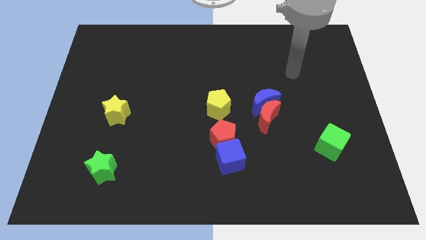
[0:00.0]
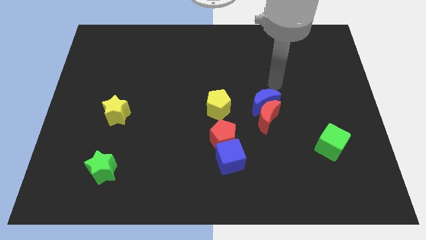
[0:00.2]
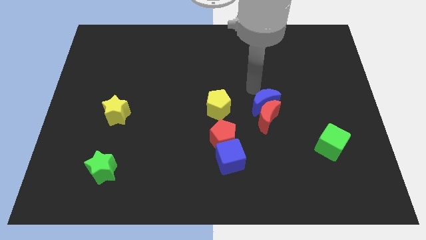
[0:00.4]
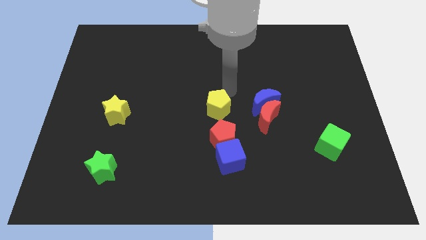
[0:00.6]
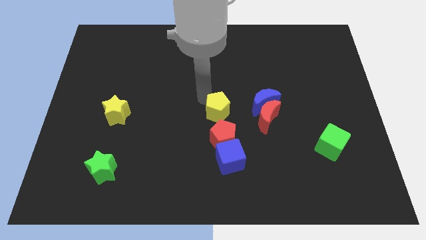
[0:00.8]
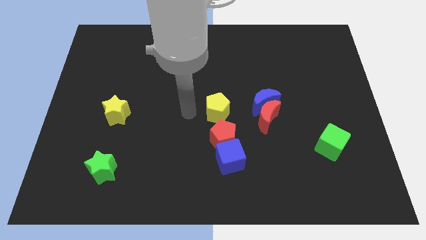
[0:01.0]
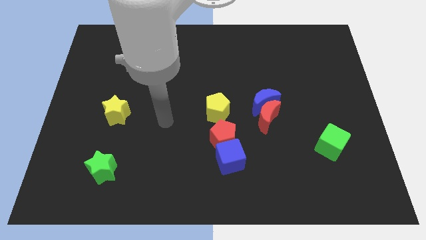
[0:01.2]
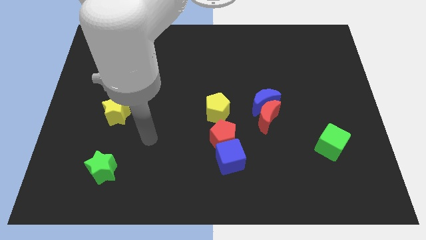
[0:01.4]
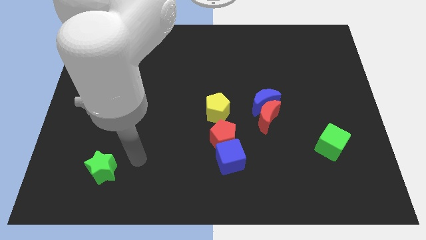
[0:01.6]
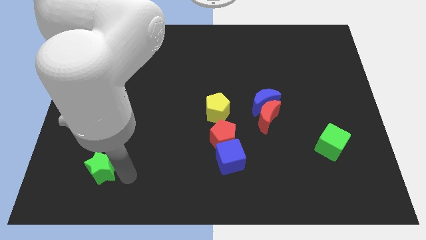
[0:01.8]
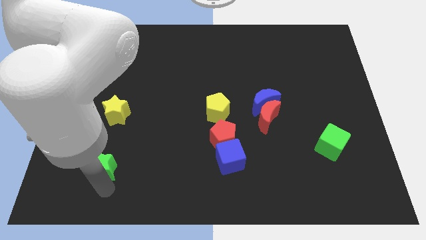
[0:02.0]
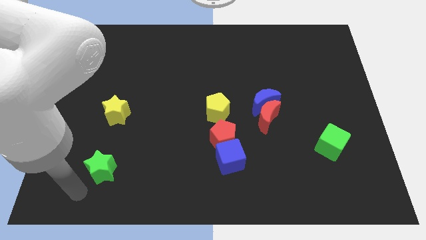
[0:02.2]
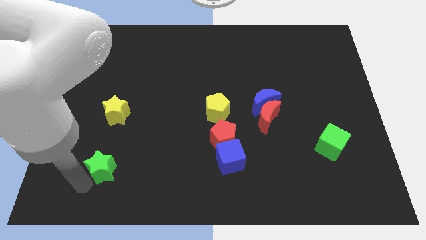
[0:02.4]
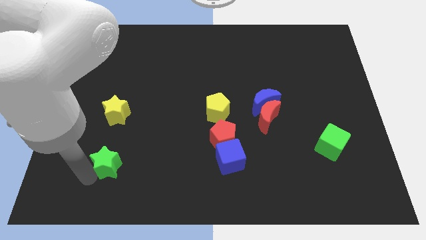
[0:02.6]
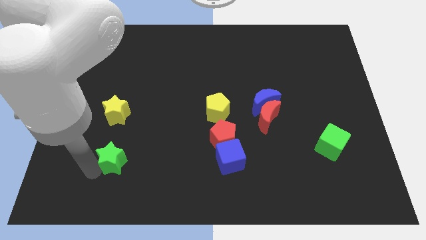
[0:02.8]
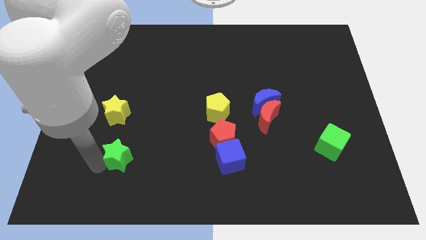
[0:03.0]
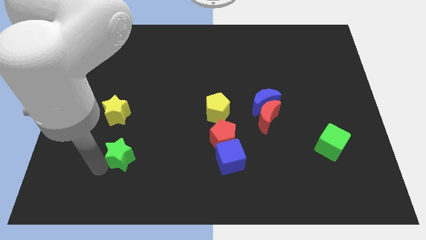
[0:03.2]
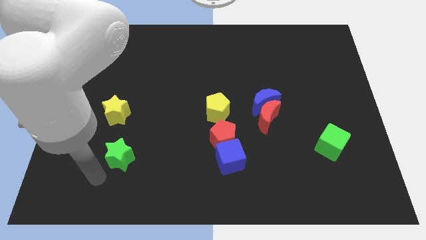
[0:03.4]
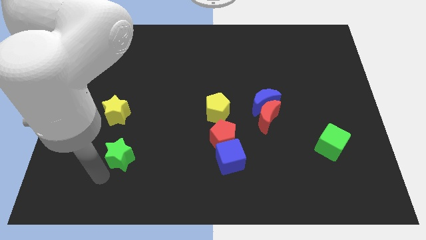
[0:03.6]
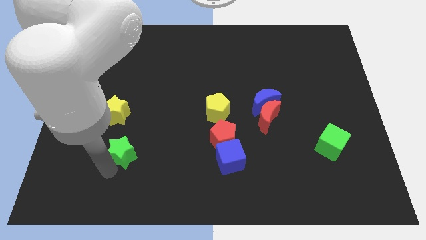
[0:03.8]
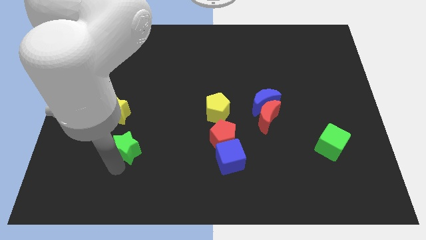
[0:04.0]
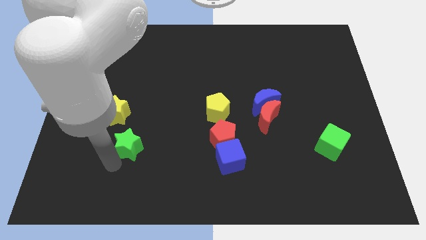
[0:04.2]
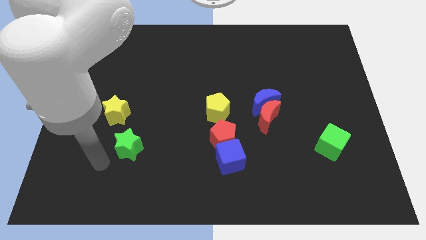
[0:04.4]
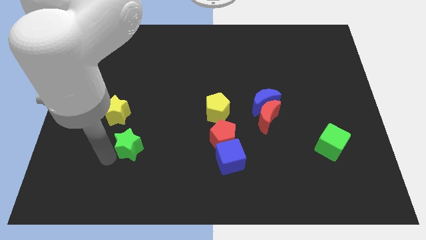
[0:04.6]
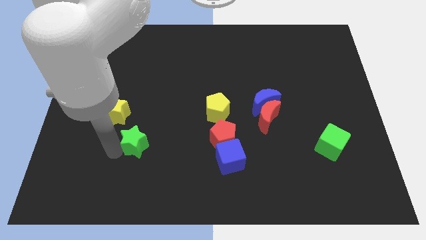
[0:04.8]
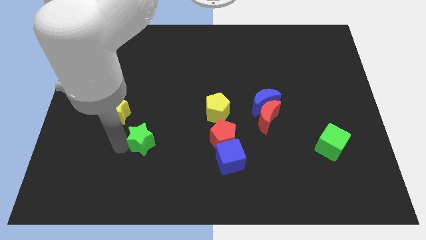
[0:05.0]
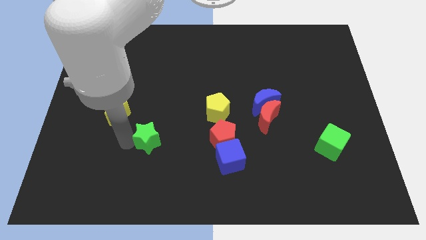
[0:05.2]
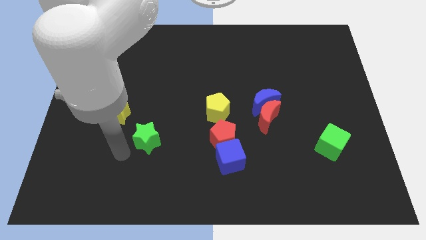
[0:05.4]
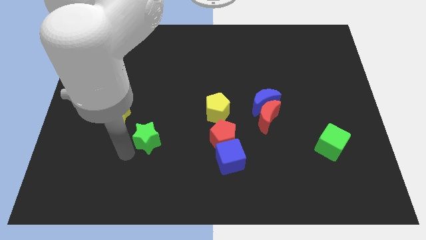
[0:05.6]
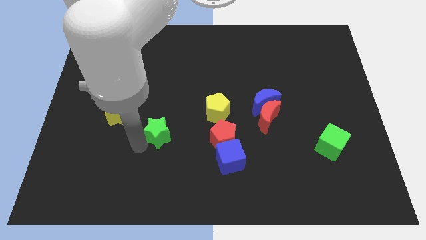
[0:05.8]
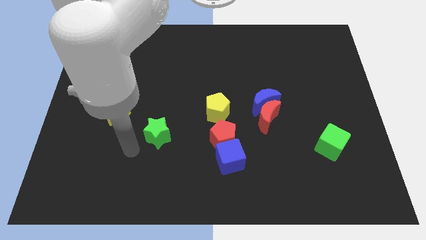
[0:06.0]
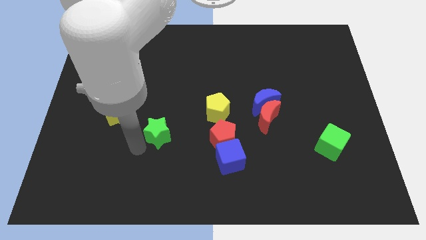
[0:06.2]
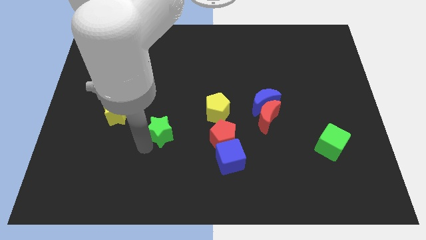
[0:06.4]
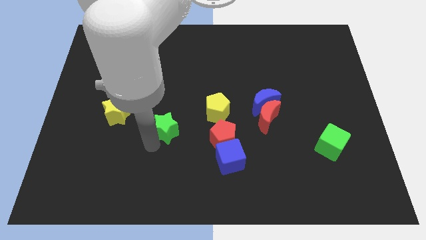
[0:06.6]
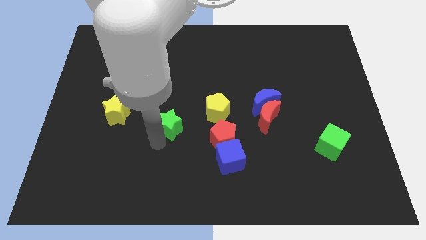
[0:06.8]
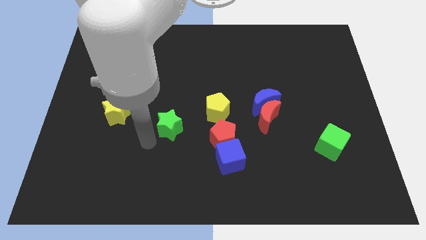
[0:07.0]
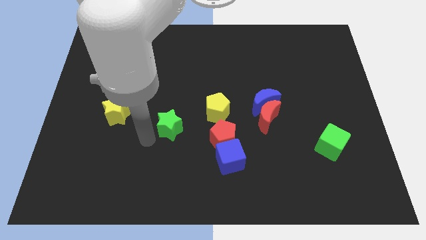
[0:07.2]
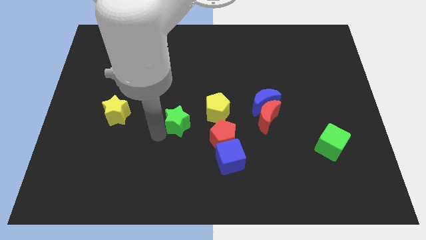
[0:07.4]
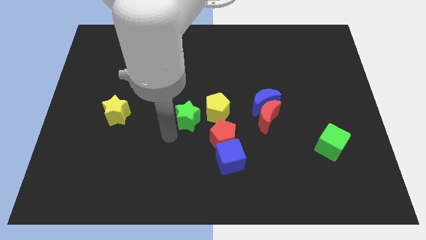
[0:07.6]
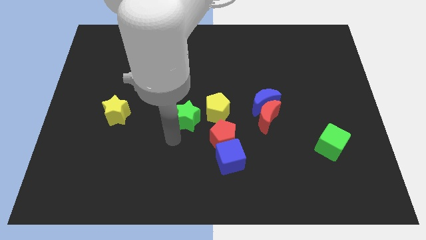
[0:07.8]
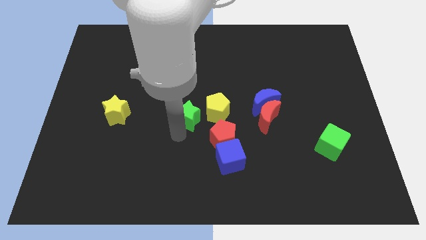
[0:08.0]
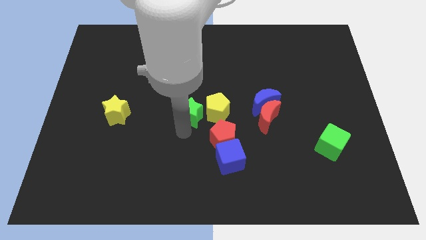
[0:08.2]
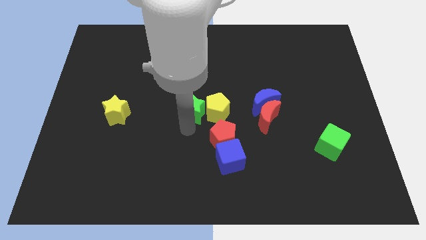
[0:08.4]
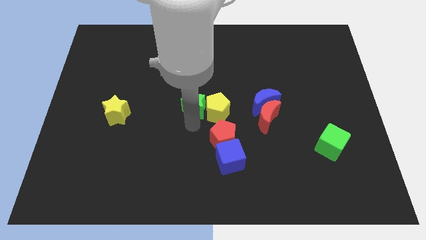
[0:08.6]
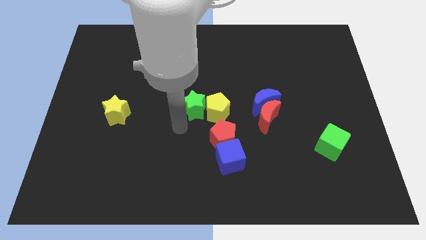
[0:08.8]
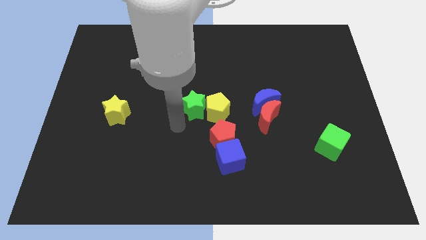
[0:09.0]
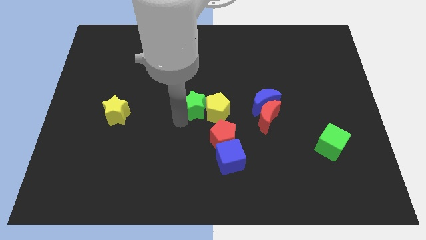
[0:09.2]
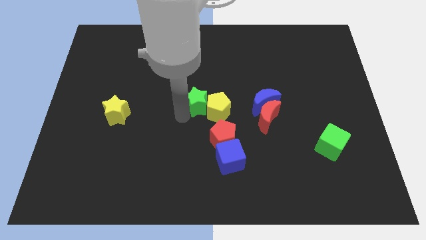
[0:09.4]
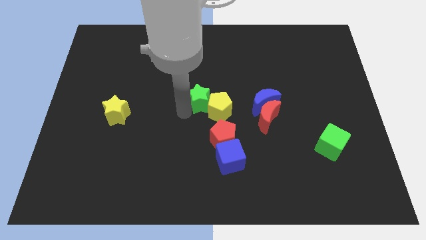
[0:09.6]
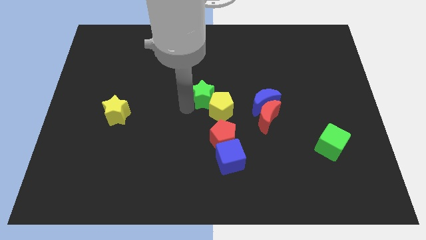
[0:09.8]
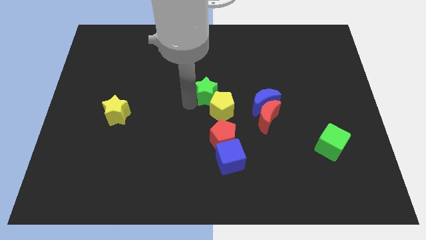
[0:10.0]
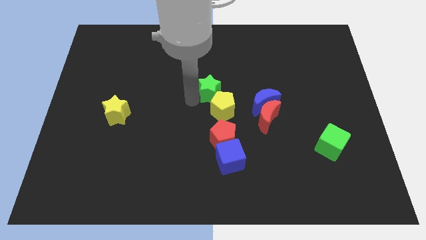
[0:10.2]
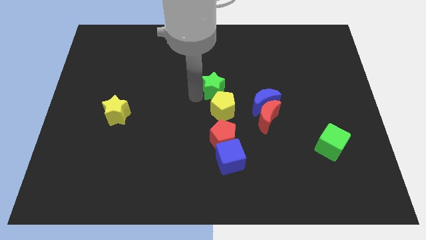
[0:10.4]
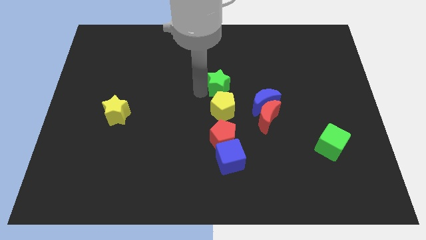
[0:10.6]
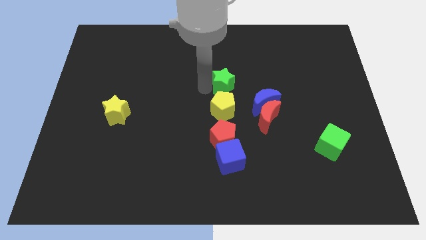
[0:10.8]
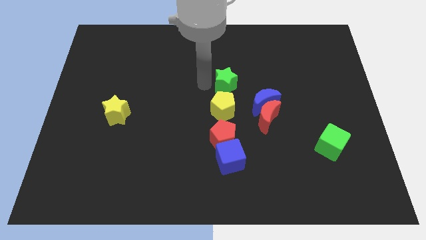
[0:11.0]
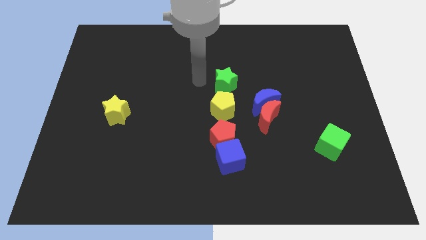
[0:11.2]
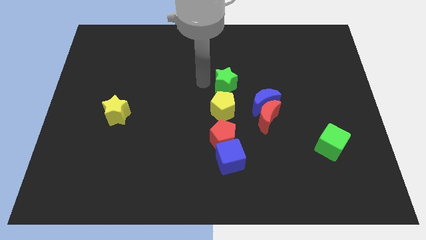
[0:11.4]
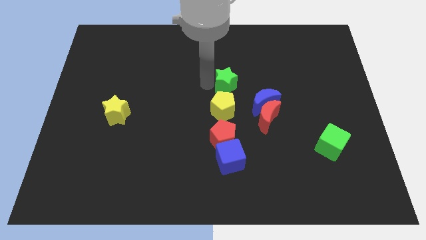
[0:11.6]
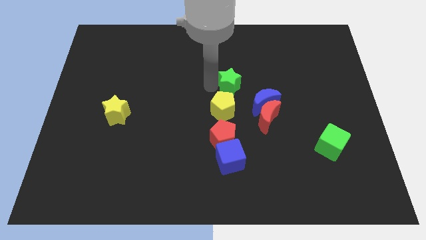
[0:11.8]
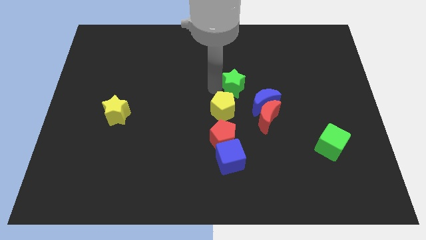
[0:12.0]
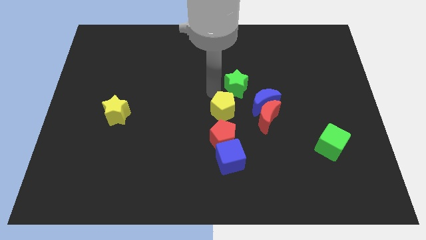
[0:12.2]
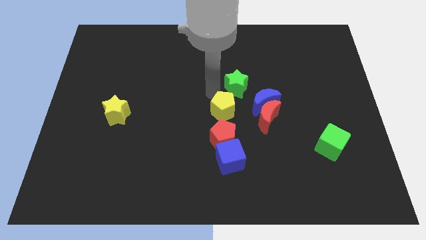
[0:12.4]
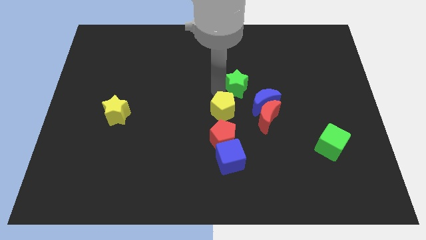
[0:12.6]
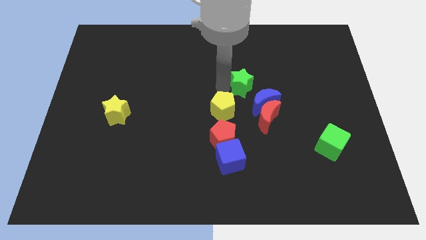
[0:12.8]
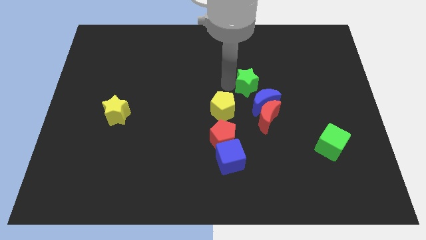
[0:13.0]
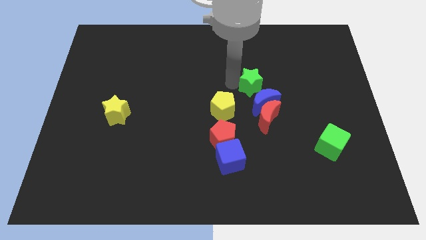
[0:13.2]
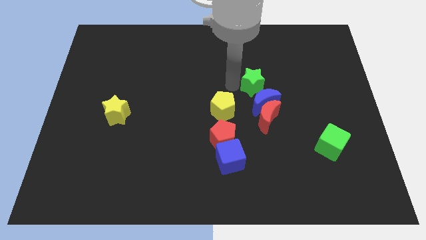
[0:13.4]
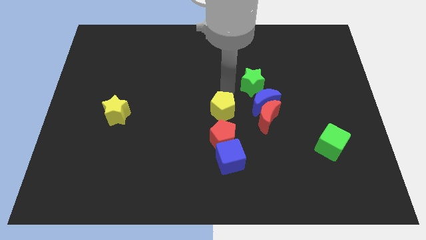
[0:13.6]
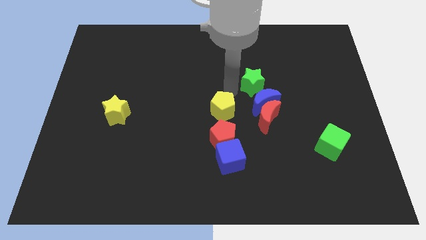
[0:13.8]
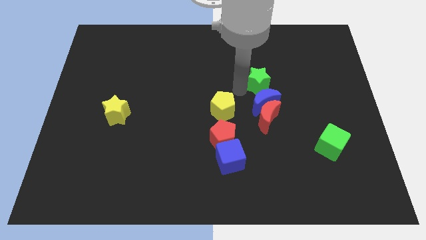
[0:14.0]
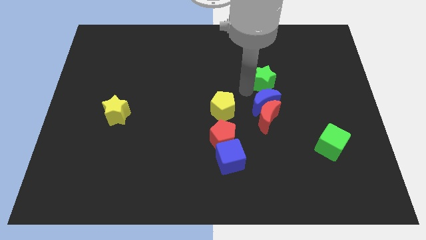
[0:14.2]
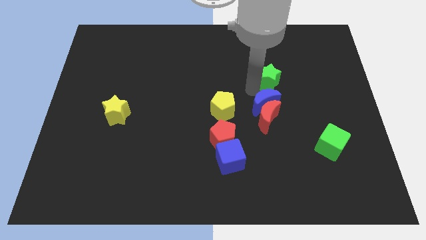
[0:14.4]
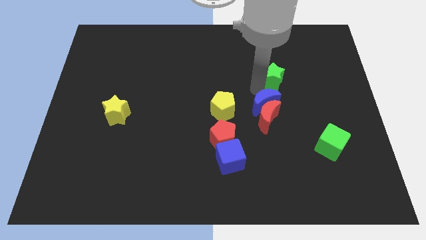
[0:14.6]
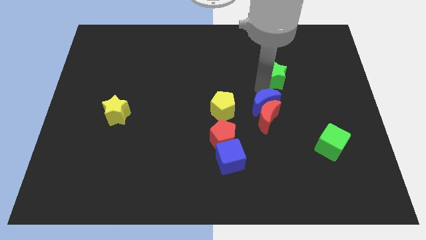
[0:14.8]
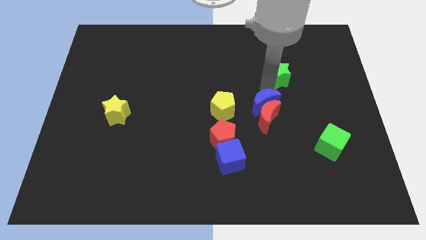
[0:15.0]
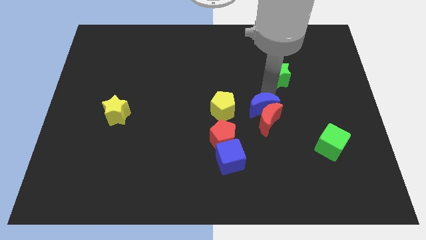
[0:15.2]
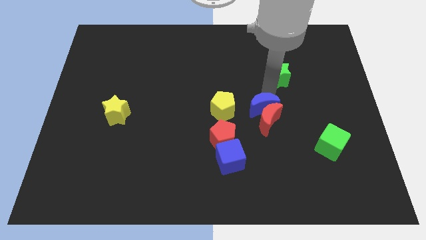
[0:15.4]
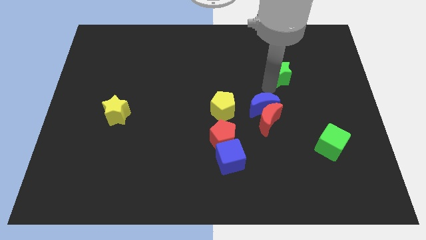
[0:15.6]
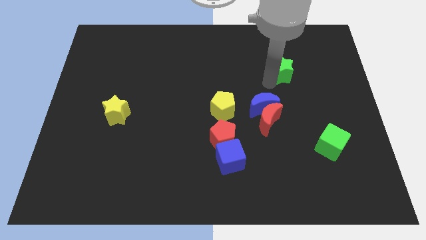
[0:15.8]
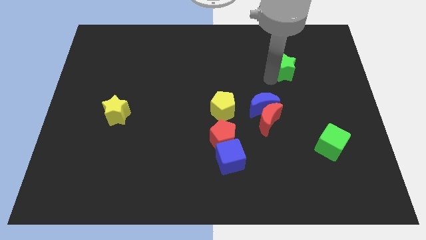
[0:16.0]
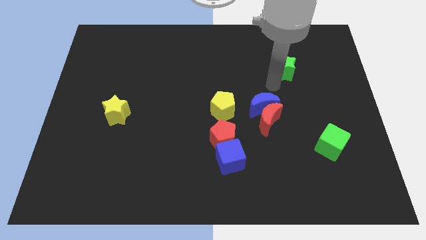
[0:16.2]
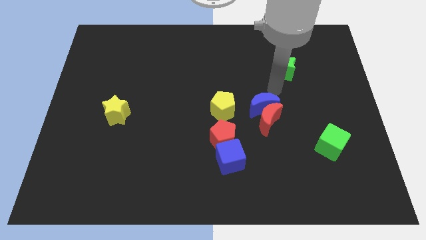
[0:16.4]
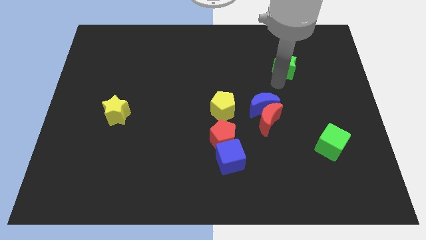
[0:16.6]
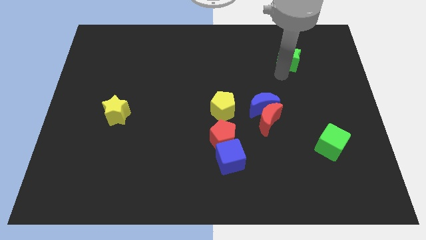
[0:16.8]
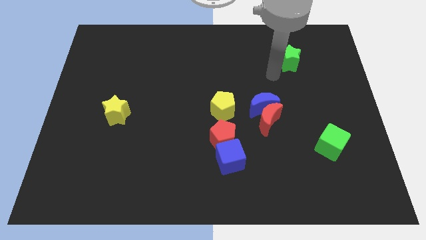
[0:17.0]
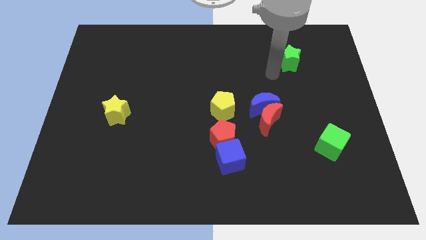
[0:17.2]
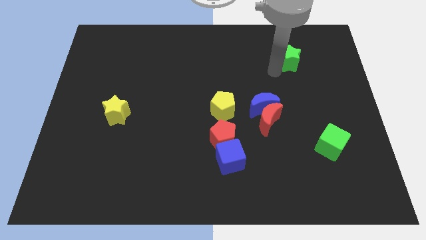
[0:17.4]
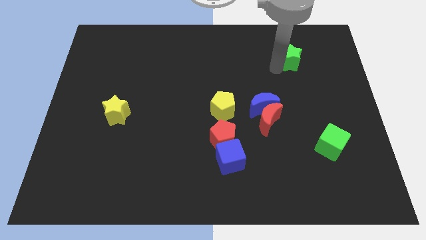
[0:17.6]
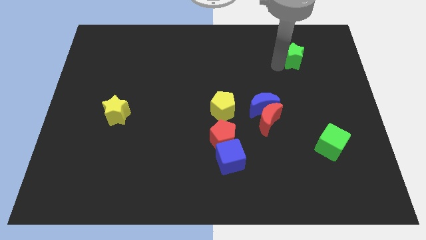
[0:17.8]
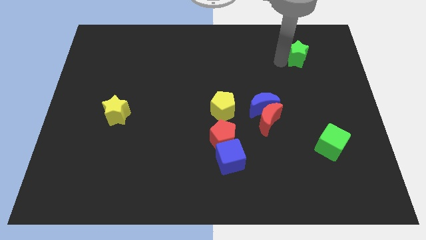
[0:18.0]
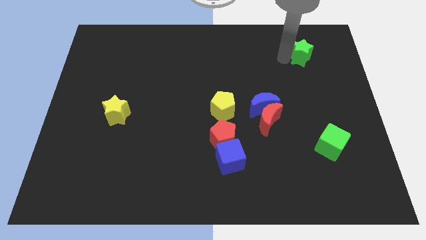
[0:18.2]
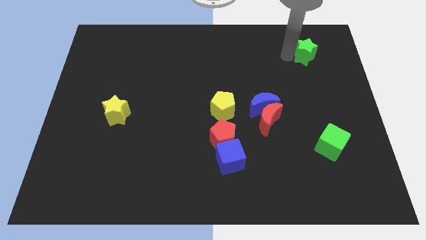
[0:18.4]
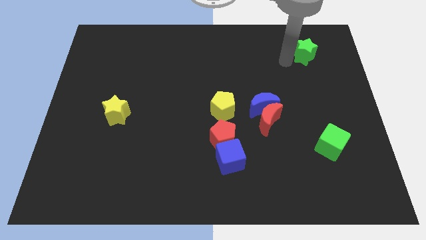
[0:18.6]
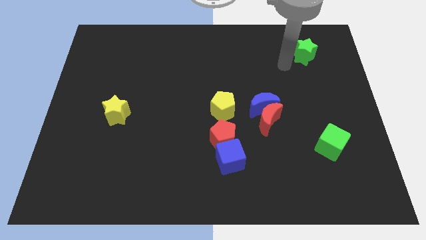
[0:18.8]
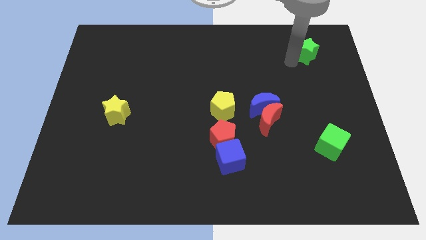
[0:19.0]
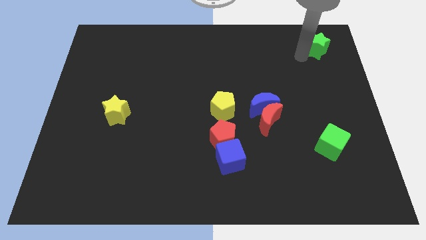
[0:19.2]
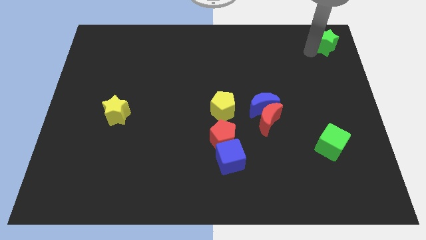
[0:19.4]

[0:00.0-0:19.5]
push the green star to the upper right corner
